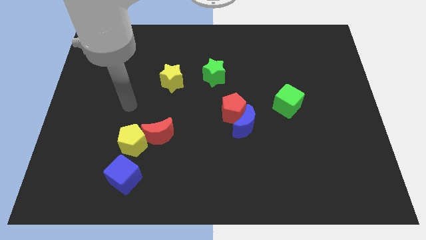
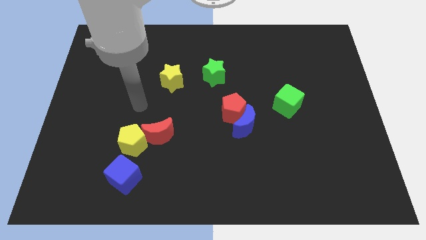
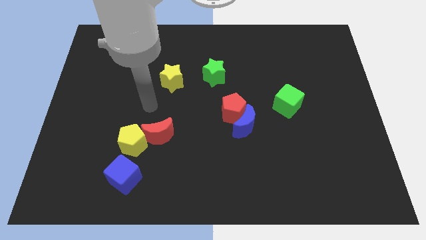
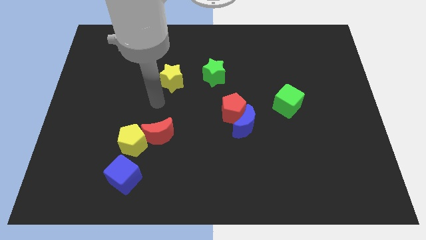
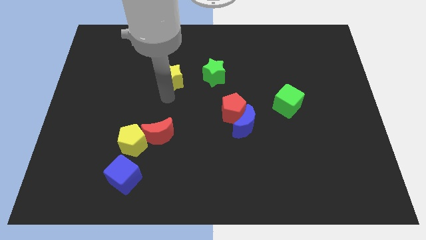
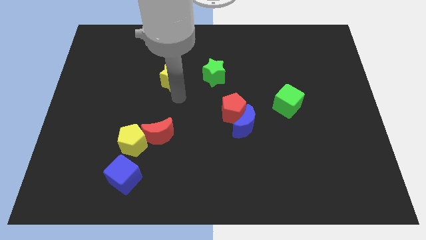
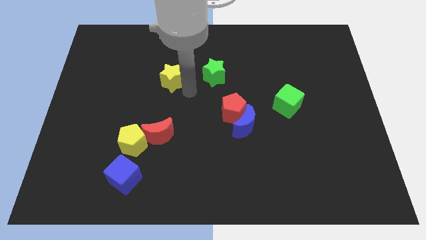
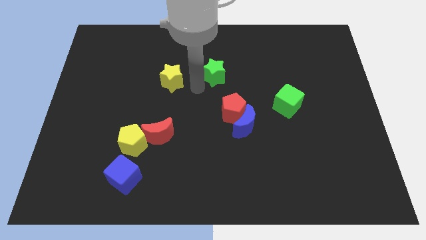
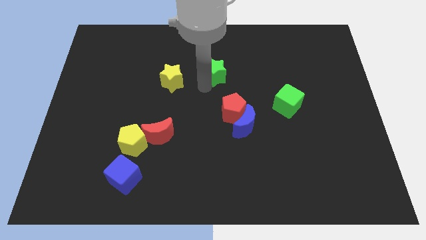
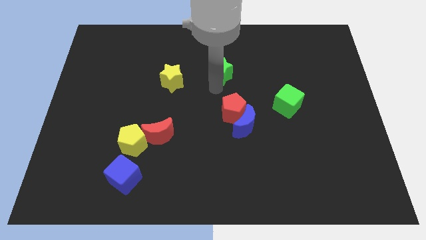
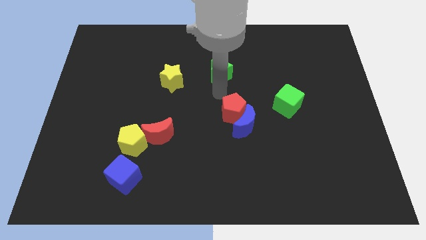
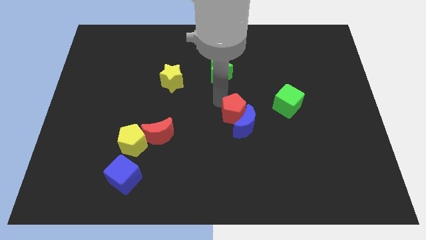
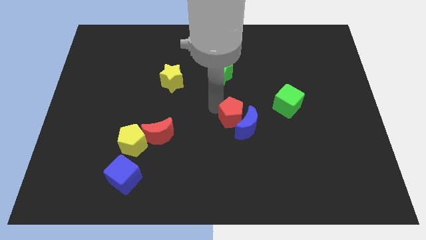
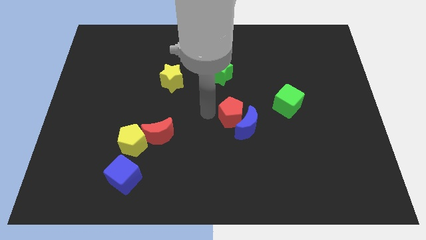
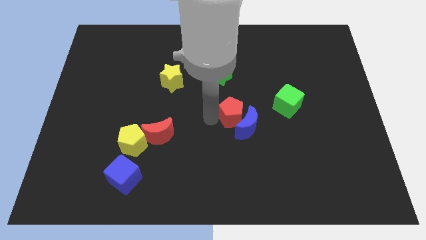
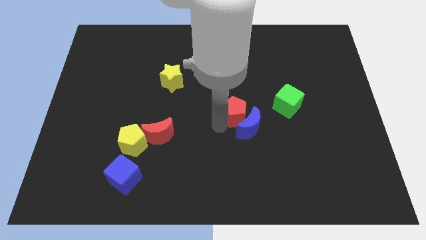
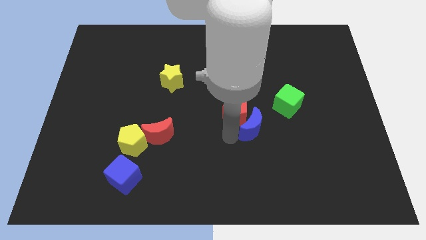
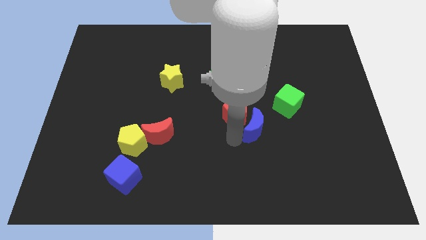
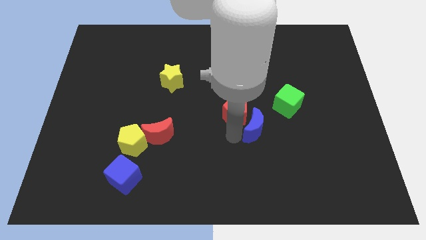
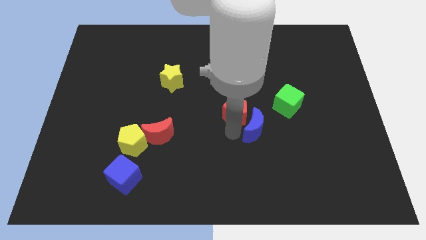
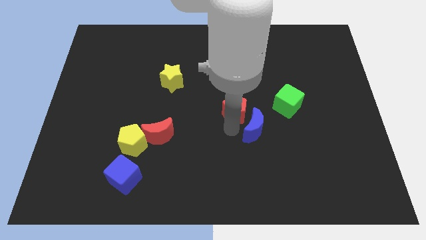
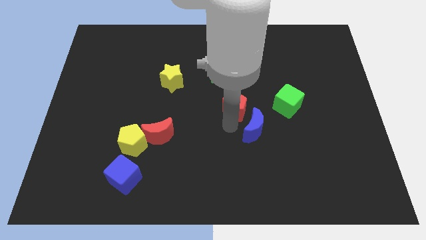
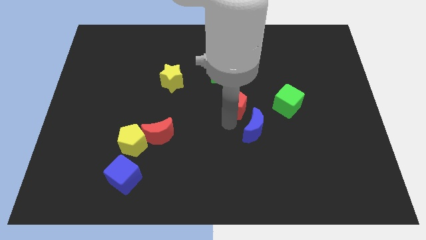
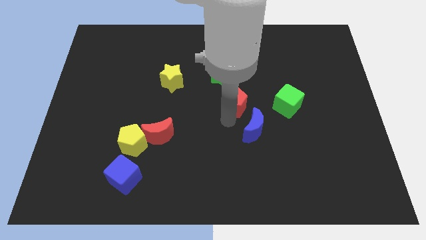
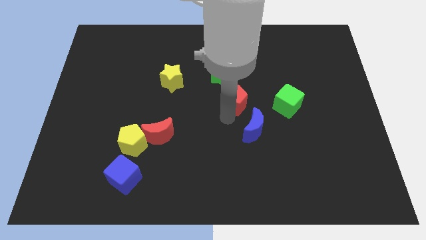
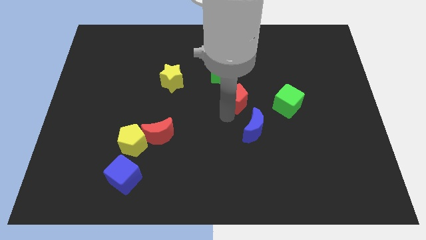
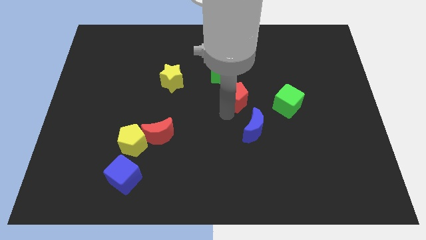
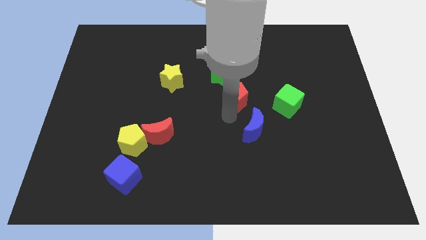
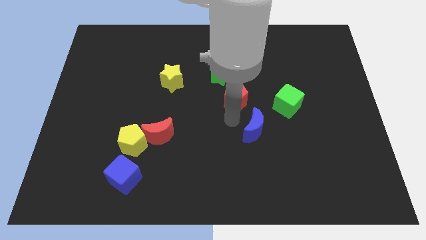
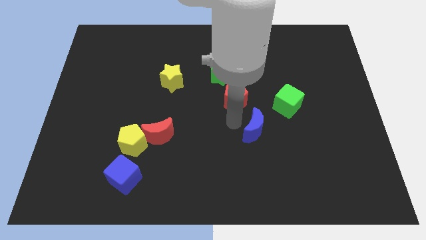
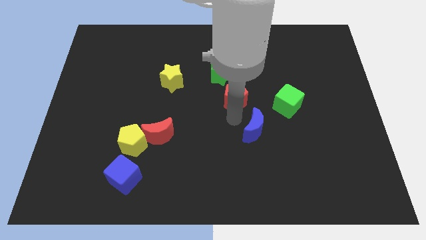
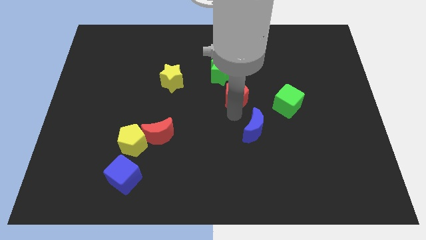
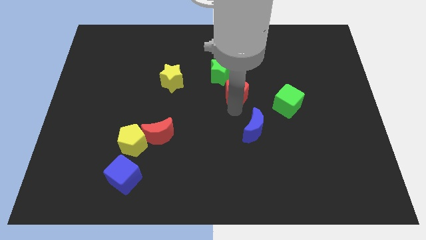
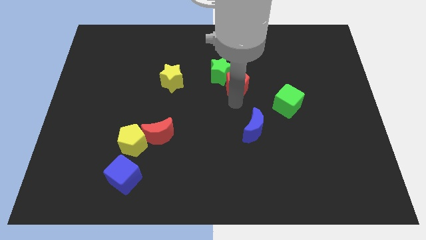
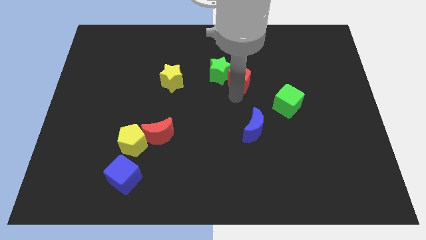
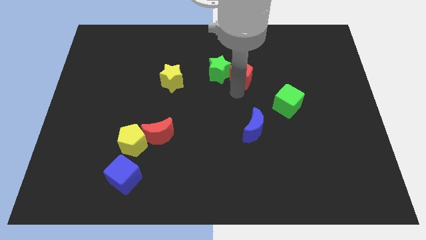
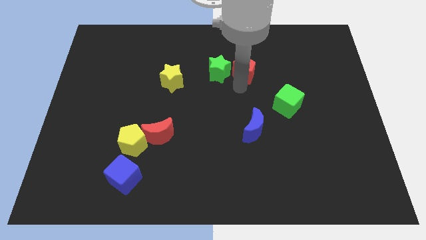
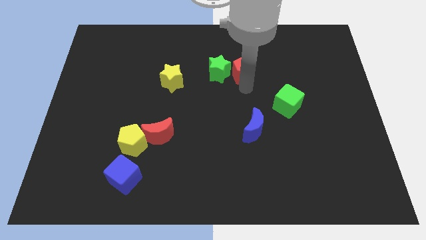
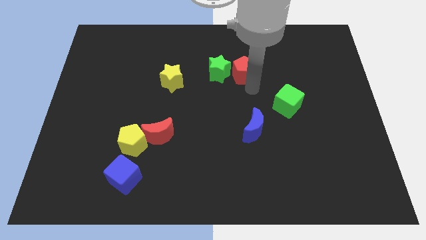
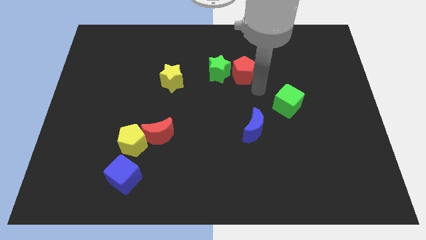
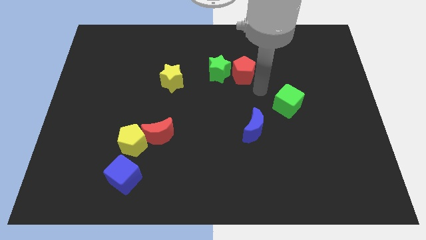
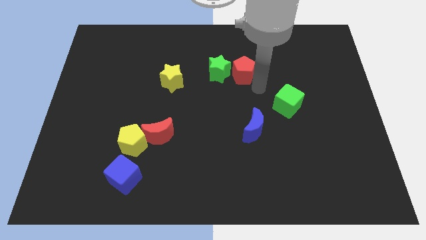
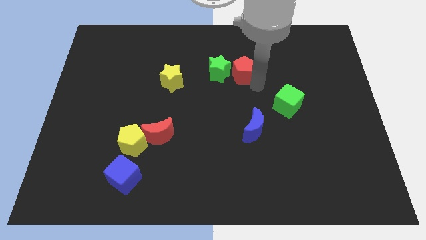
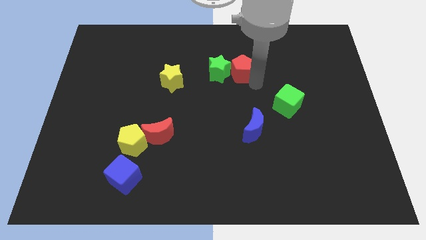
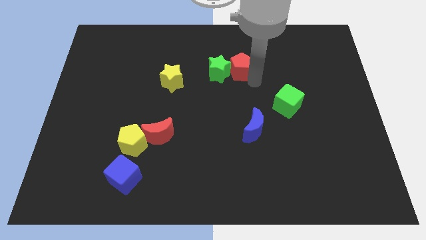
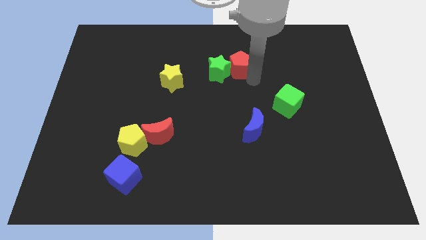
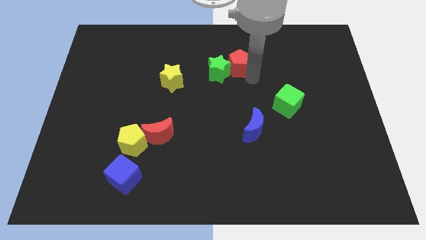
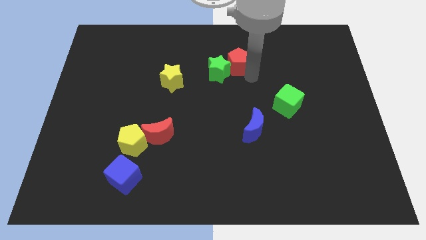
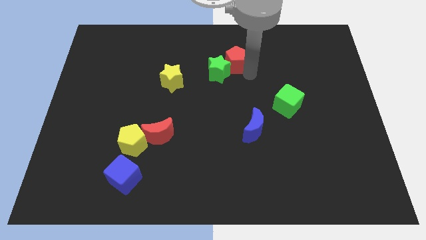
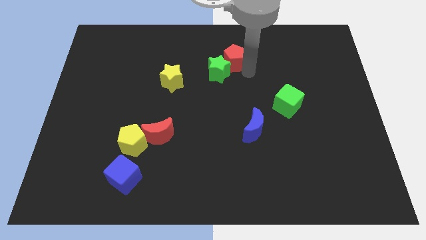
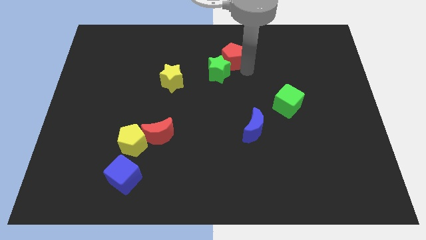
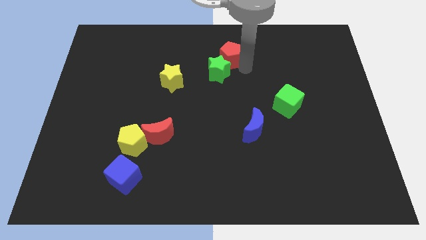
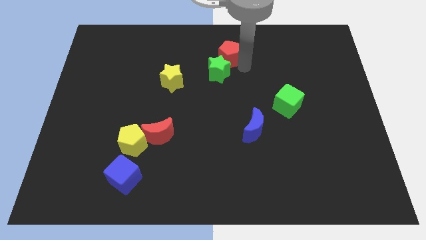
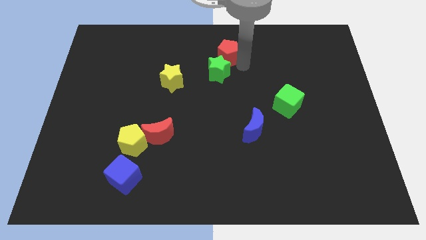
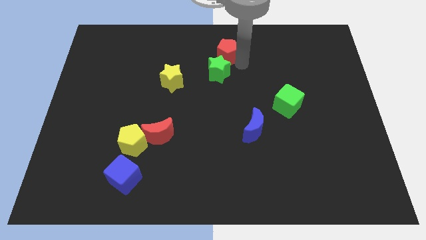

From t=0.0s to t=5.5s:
put the red pentagon to the top

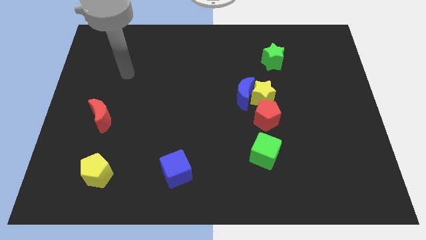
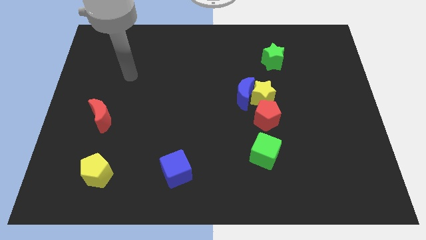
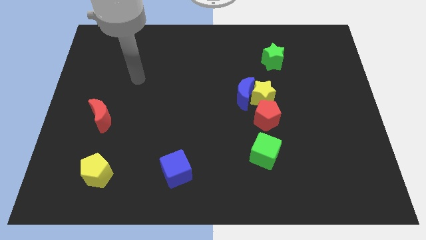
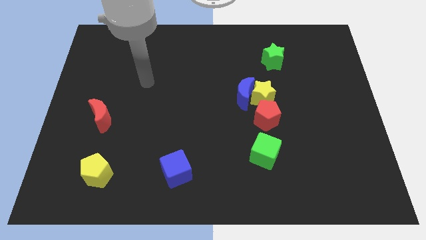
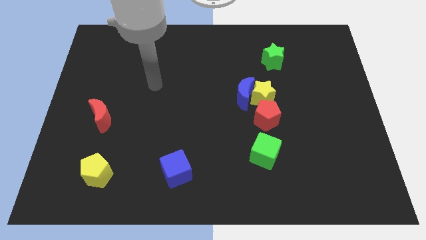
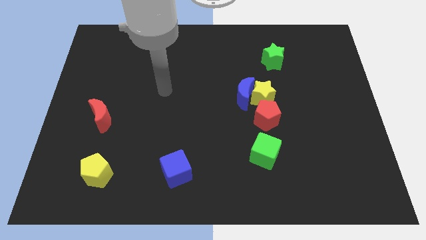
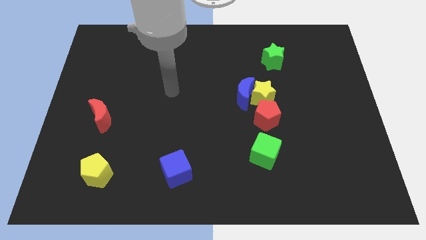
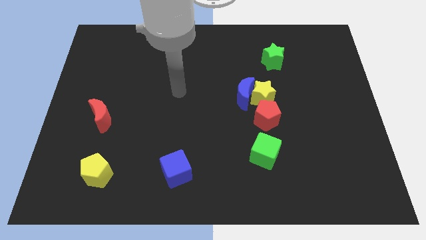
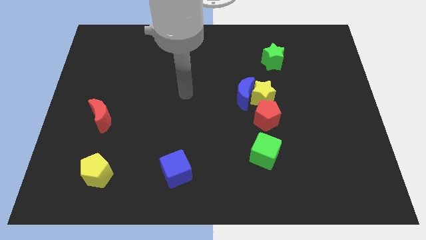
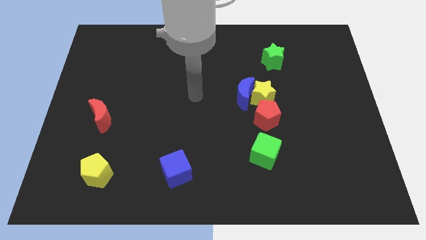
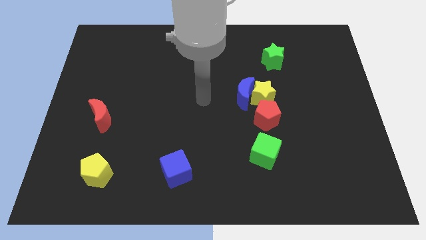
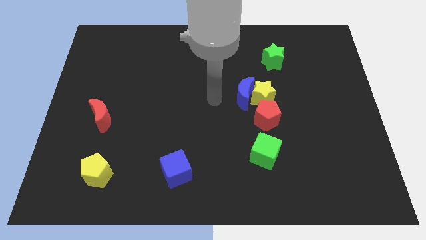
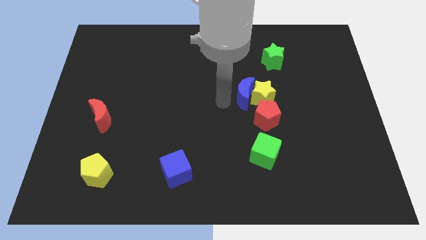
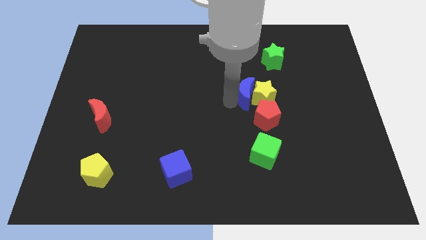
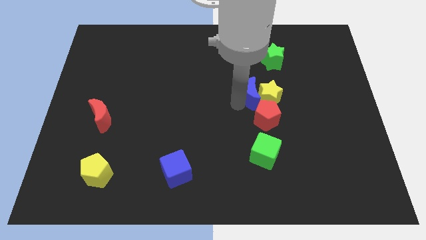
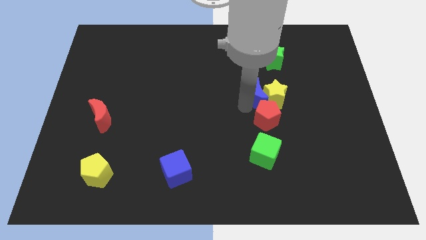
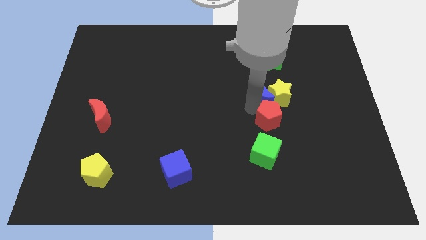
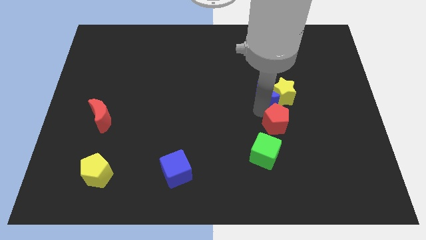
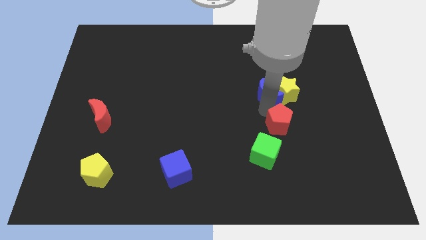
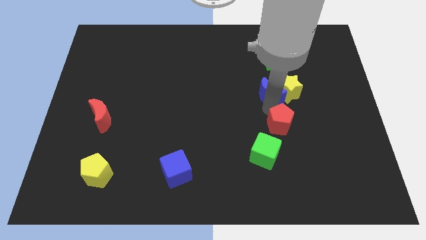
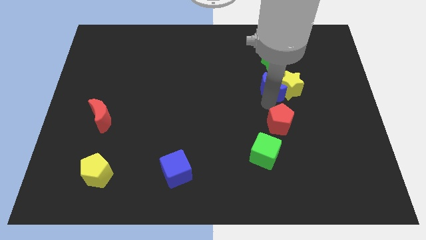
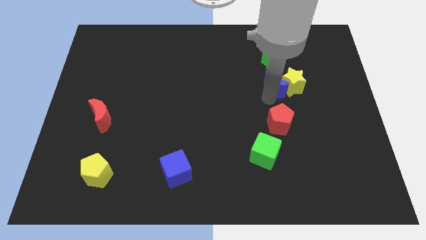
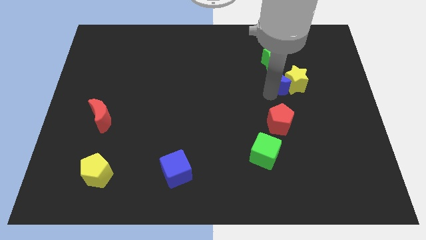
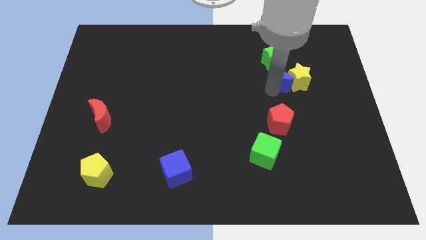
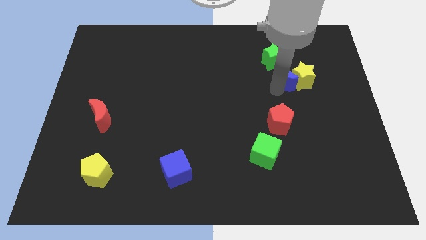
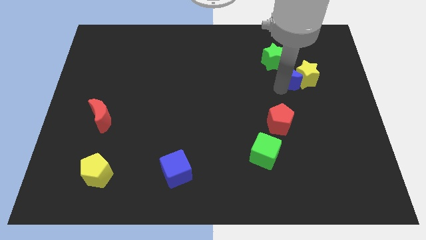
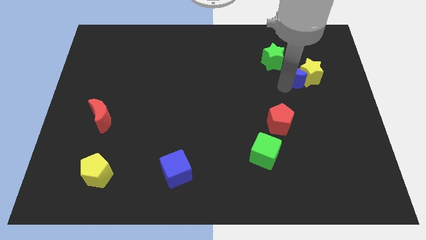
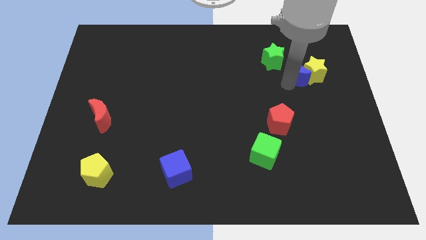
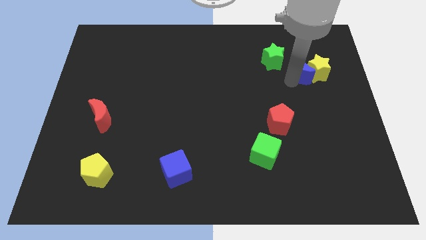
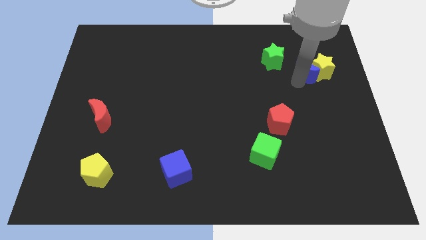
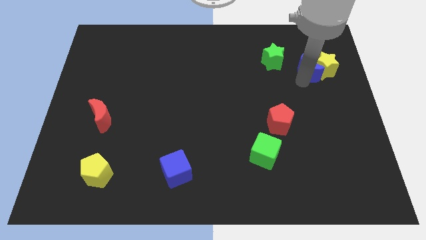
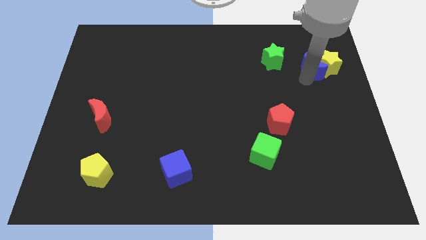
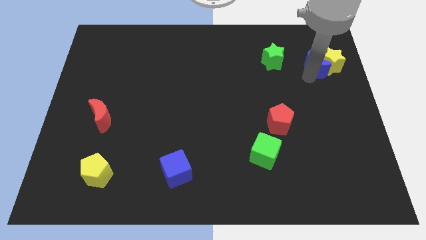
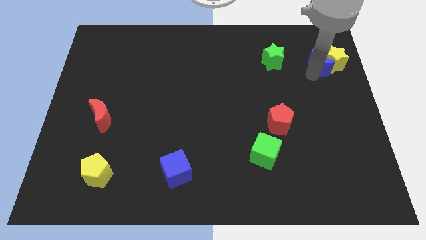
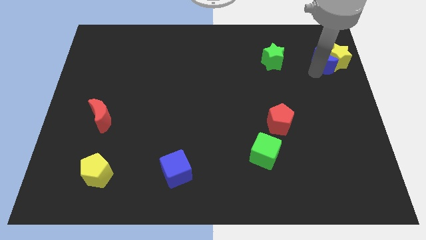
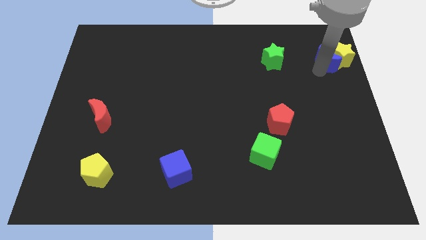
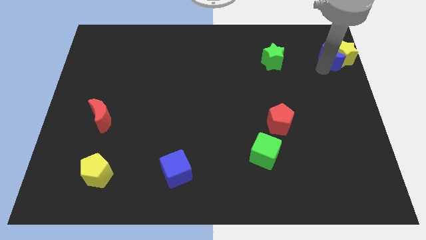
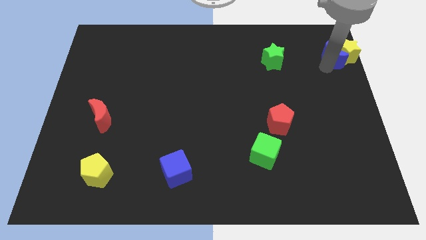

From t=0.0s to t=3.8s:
put the yellow star to the top right of the board
